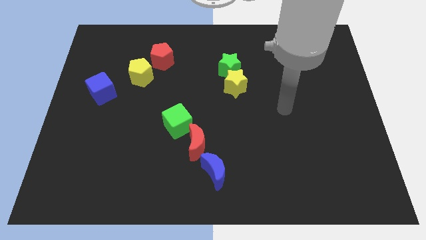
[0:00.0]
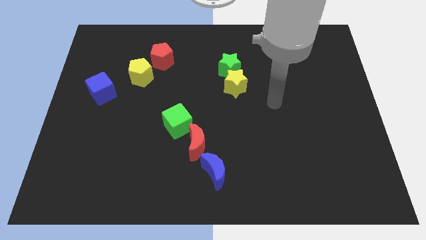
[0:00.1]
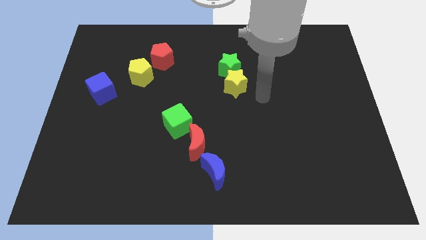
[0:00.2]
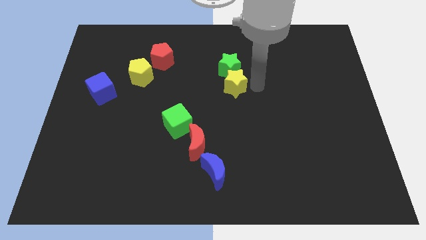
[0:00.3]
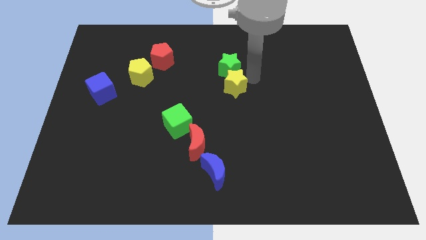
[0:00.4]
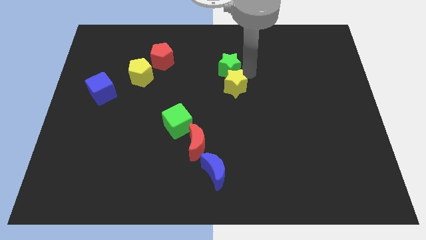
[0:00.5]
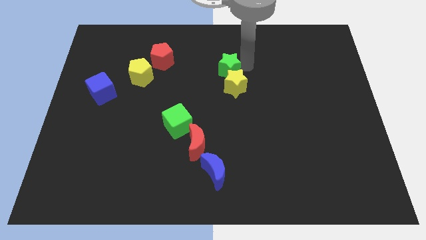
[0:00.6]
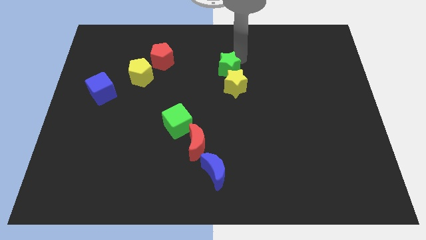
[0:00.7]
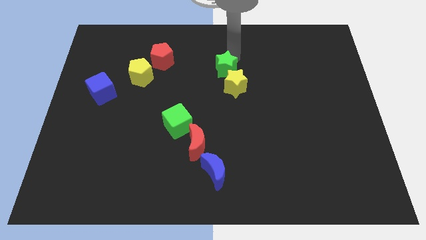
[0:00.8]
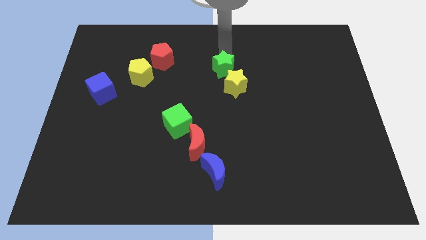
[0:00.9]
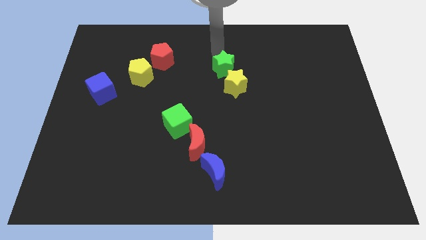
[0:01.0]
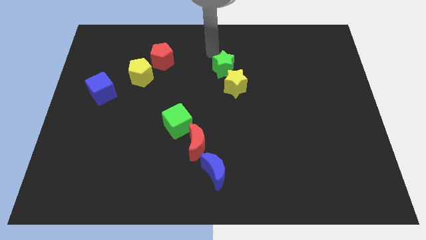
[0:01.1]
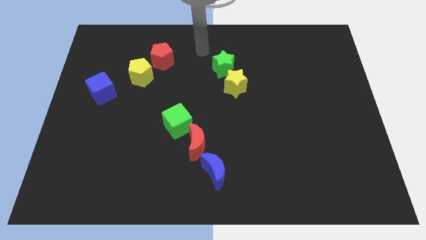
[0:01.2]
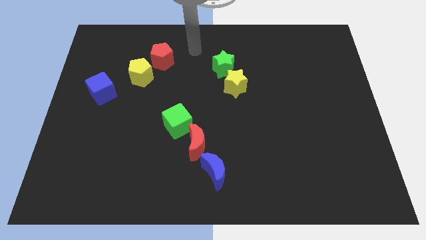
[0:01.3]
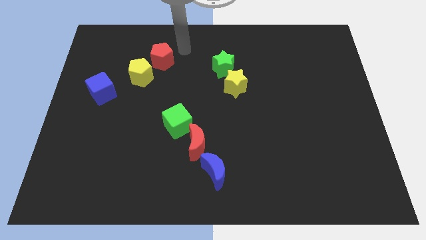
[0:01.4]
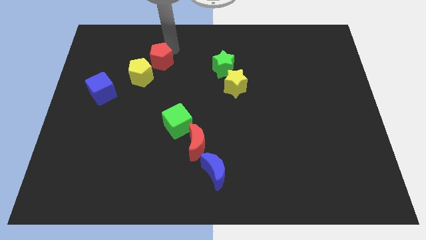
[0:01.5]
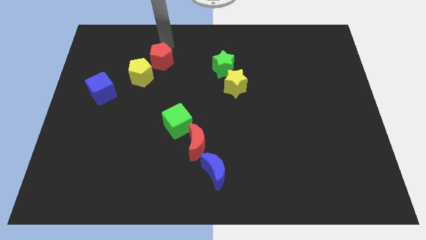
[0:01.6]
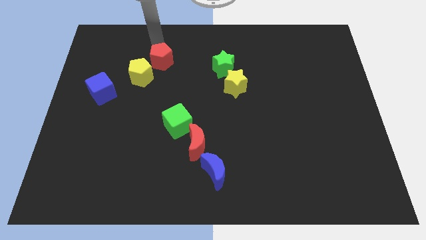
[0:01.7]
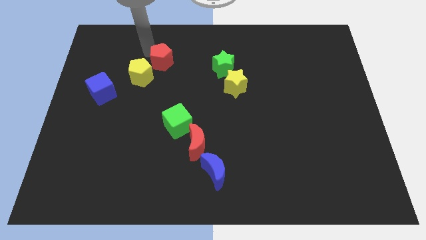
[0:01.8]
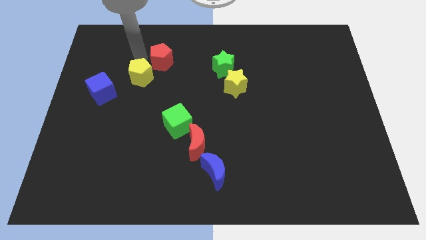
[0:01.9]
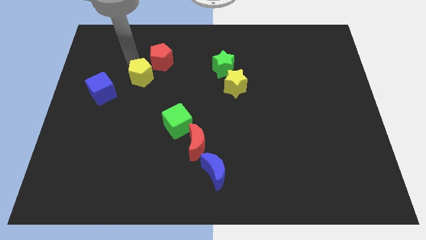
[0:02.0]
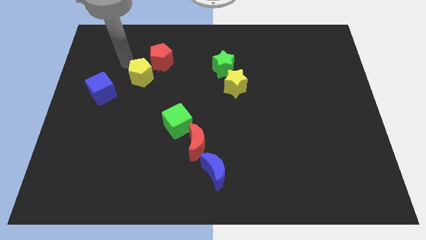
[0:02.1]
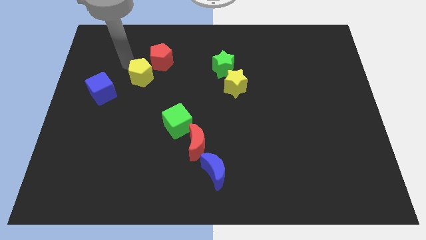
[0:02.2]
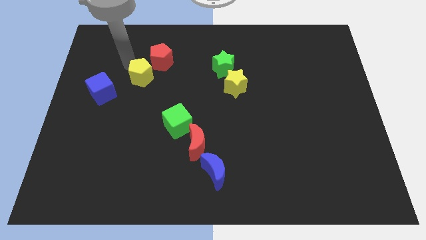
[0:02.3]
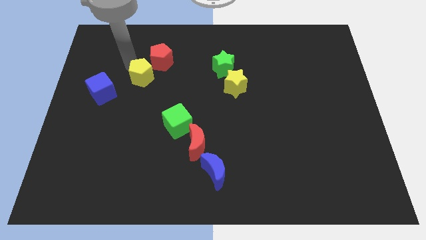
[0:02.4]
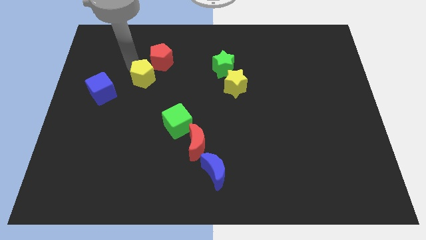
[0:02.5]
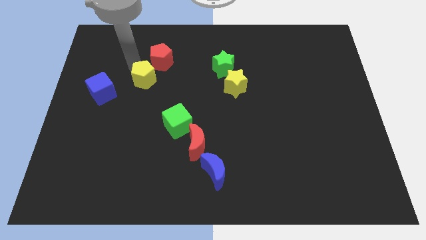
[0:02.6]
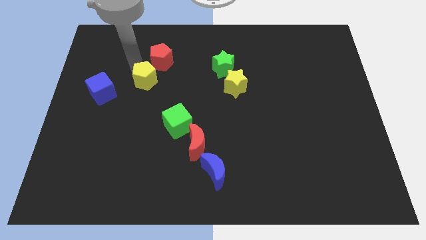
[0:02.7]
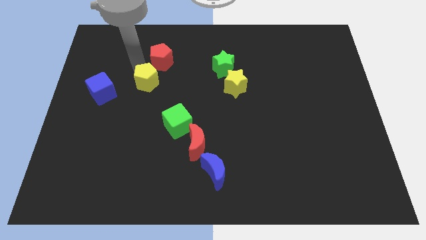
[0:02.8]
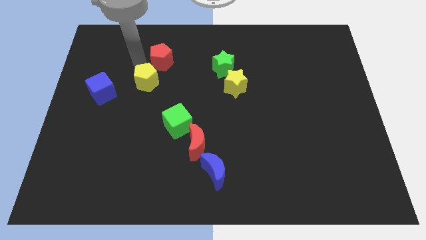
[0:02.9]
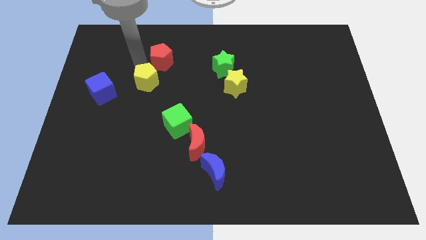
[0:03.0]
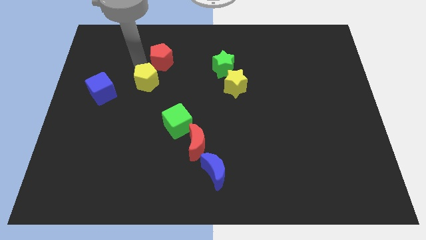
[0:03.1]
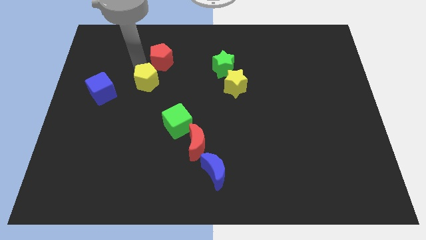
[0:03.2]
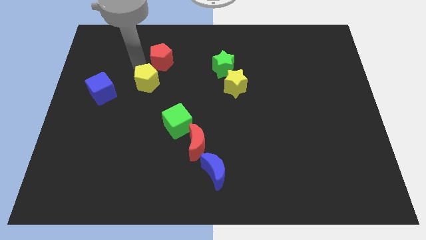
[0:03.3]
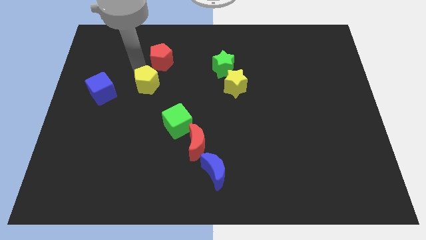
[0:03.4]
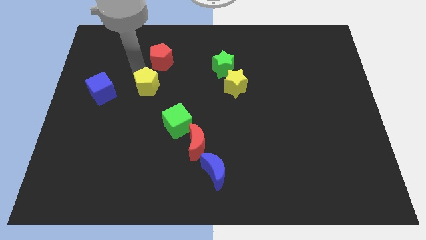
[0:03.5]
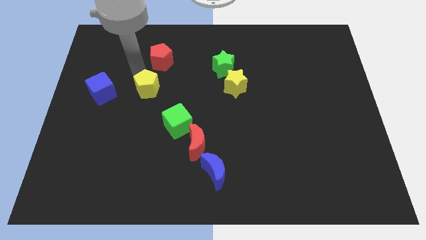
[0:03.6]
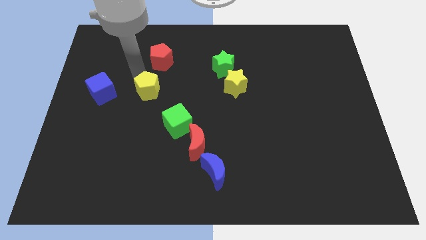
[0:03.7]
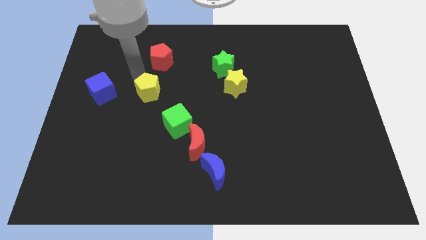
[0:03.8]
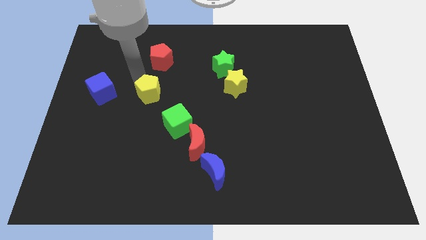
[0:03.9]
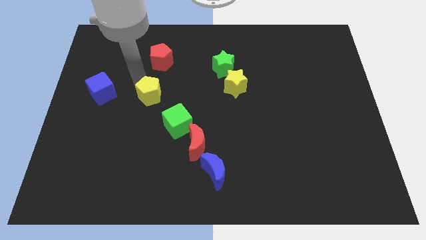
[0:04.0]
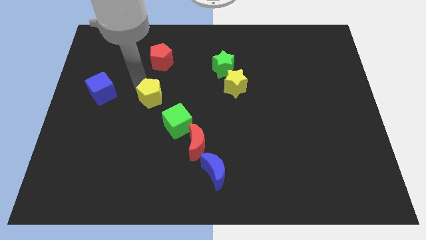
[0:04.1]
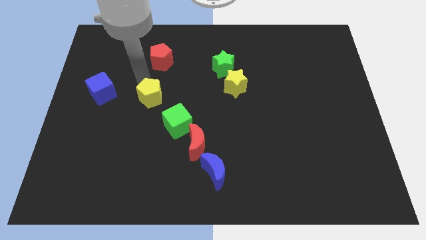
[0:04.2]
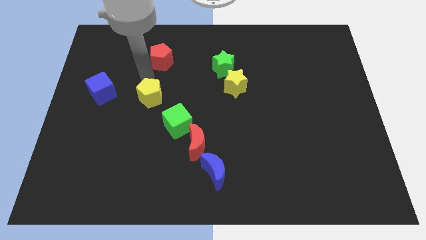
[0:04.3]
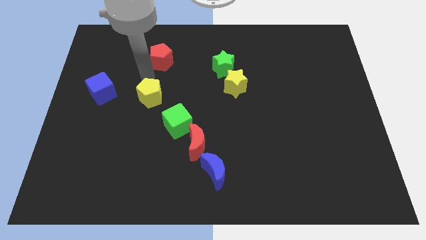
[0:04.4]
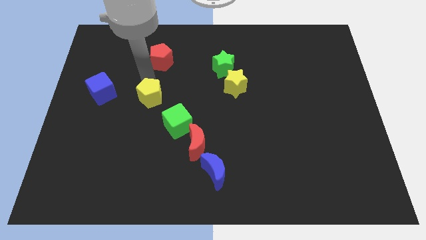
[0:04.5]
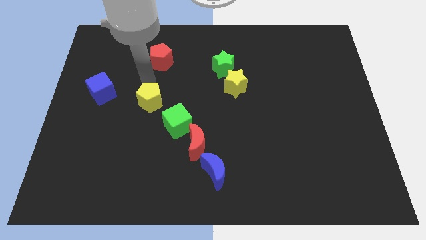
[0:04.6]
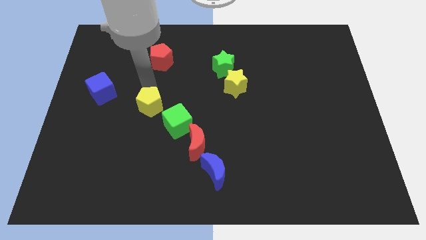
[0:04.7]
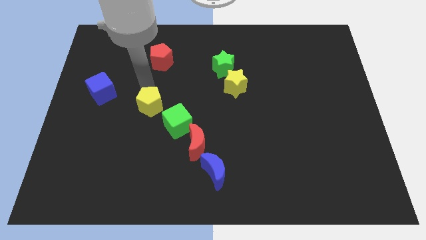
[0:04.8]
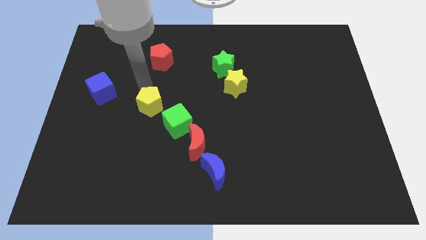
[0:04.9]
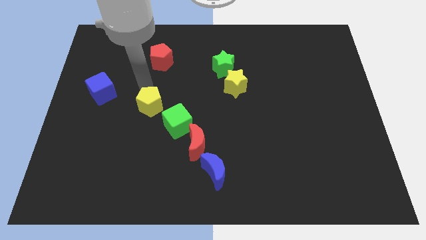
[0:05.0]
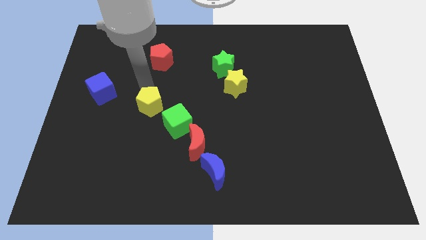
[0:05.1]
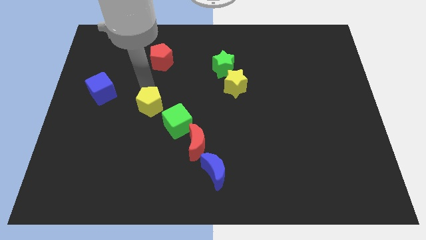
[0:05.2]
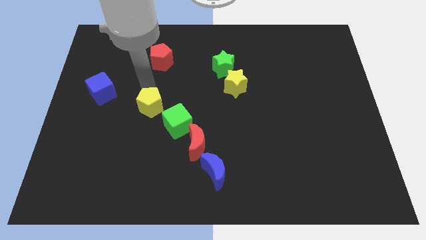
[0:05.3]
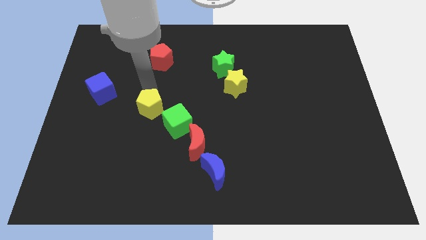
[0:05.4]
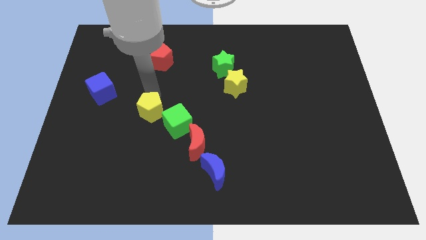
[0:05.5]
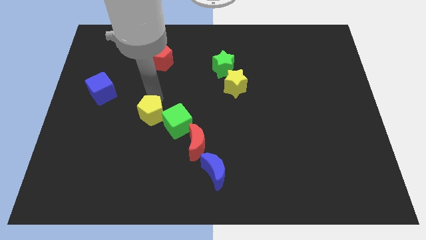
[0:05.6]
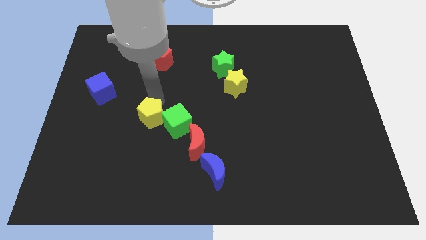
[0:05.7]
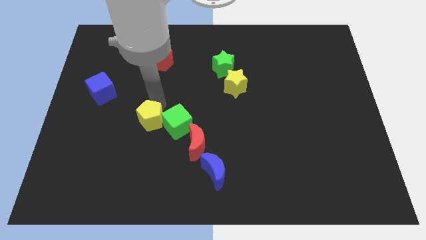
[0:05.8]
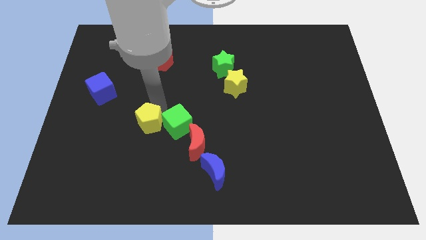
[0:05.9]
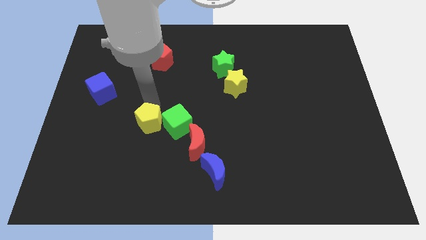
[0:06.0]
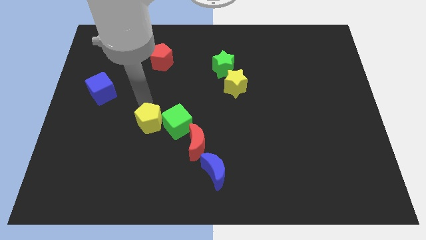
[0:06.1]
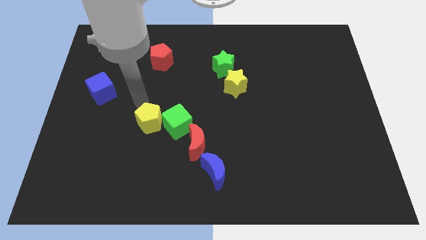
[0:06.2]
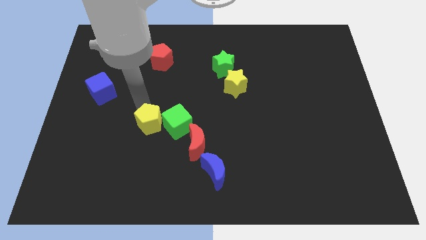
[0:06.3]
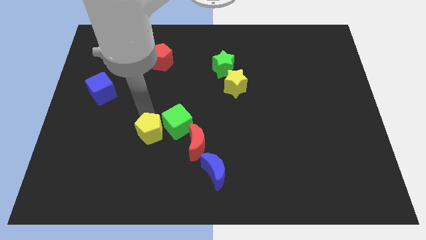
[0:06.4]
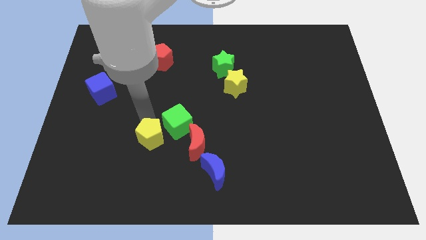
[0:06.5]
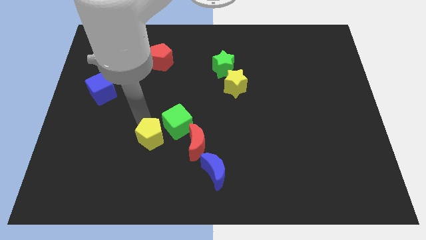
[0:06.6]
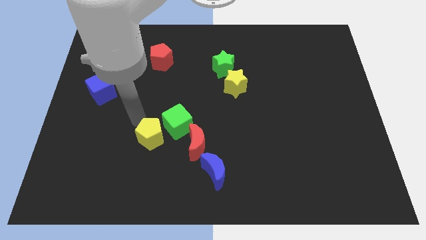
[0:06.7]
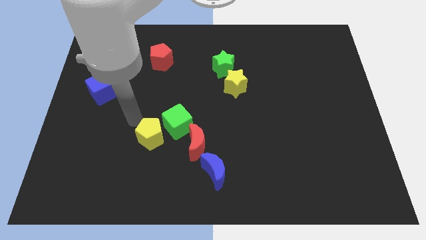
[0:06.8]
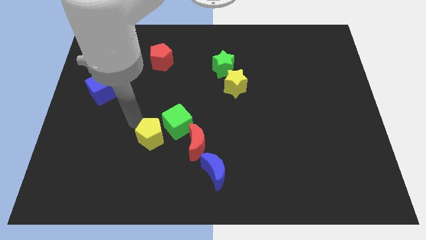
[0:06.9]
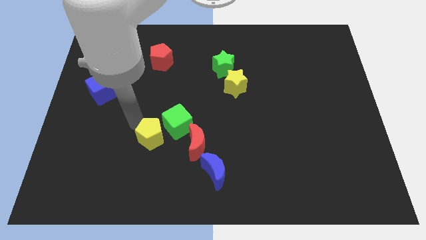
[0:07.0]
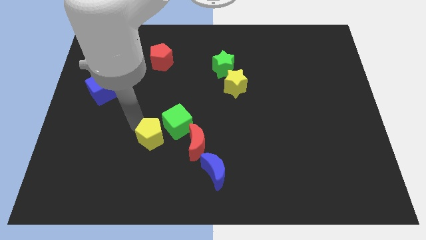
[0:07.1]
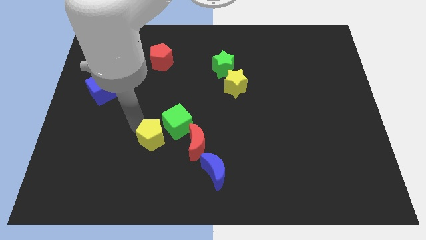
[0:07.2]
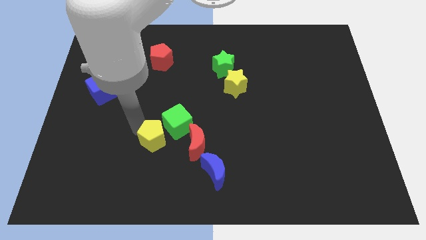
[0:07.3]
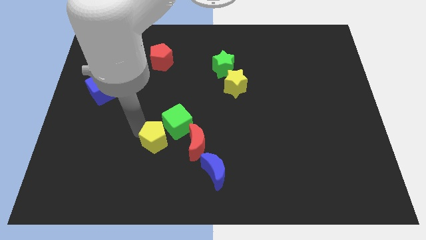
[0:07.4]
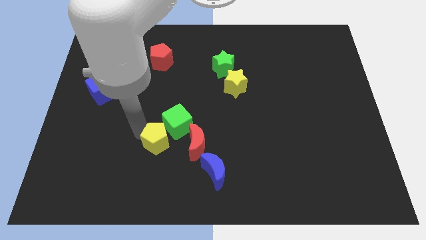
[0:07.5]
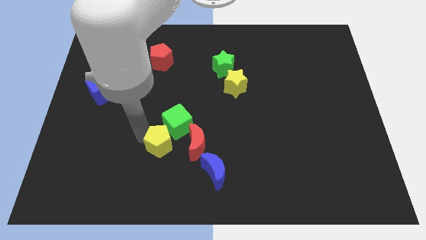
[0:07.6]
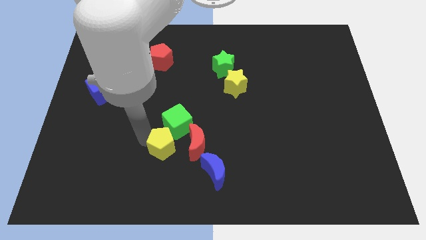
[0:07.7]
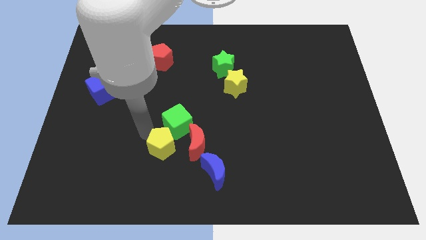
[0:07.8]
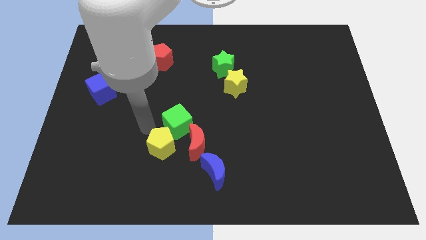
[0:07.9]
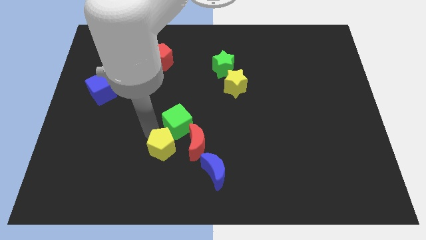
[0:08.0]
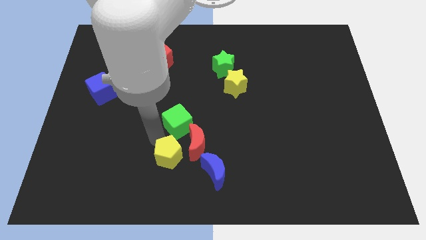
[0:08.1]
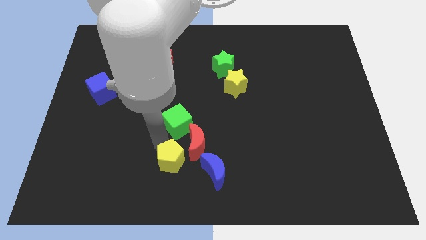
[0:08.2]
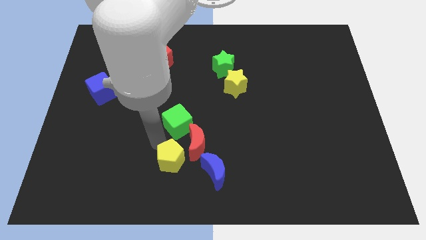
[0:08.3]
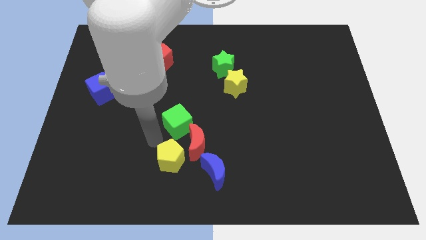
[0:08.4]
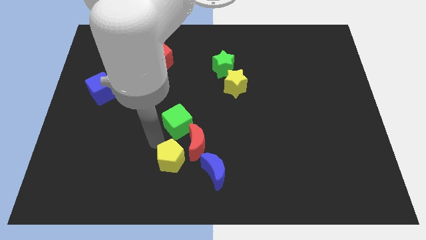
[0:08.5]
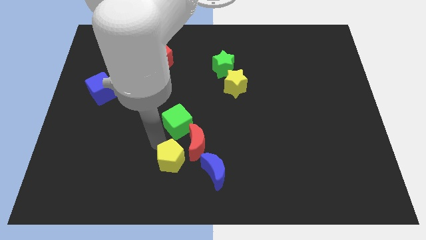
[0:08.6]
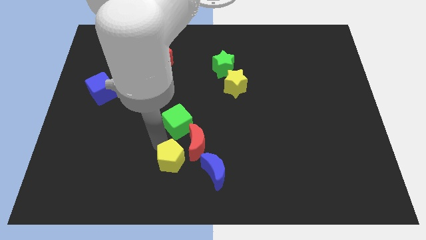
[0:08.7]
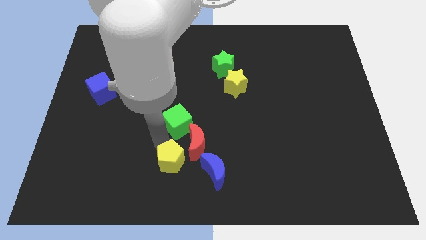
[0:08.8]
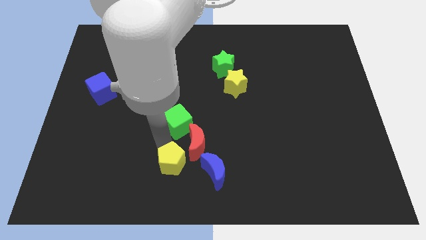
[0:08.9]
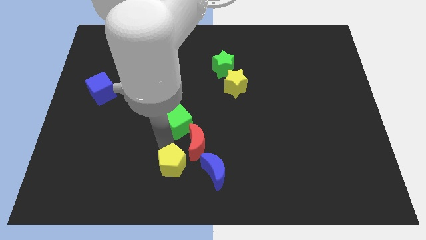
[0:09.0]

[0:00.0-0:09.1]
slide the yellow pentagon to the bottom
